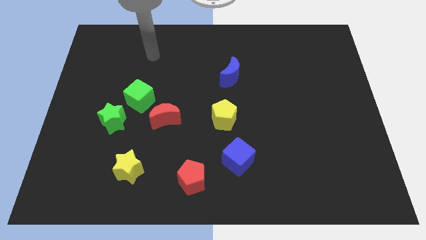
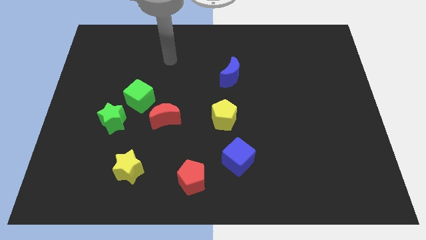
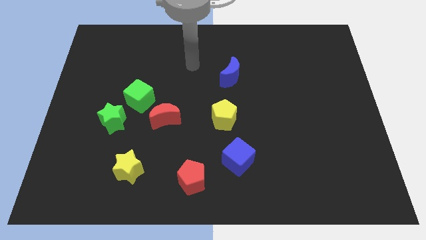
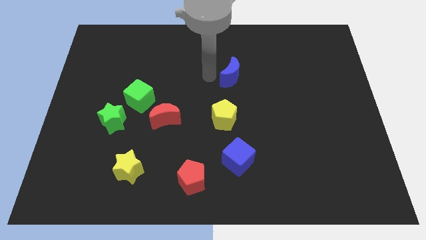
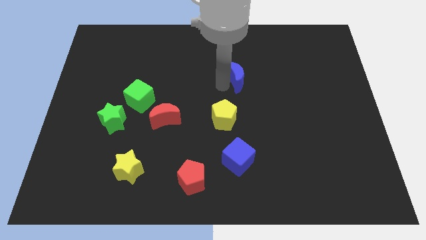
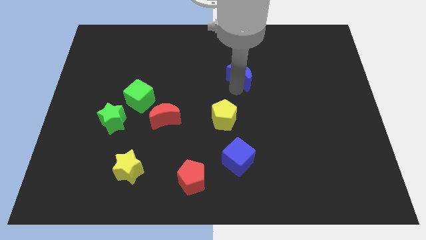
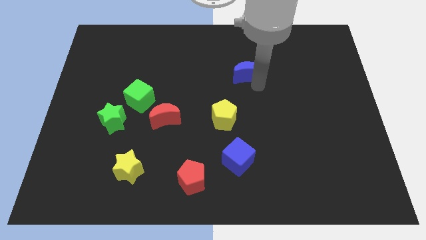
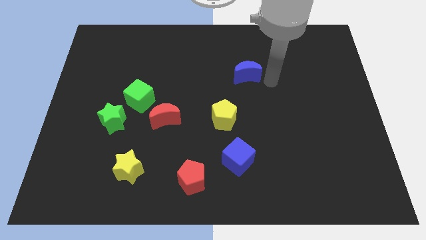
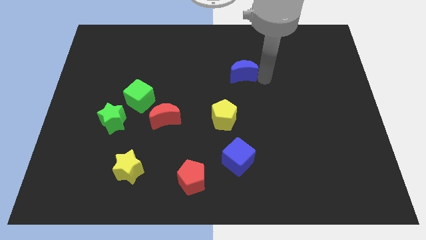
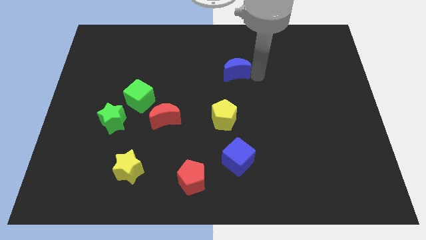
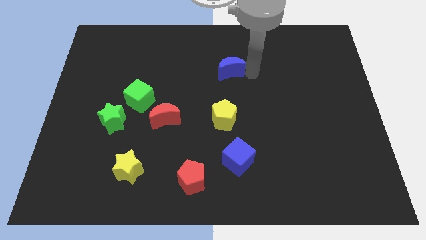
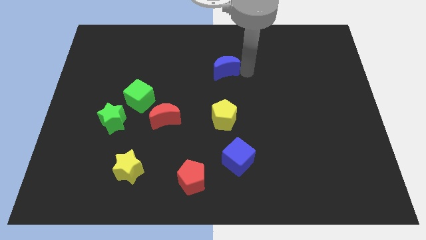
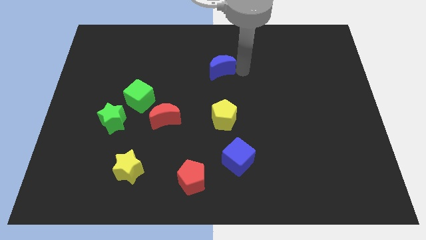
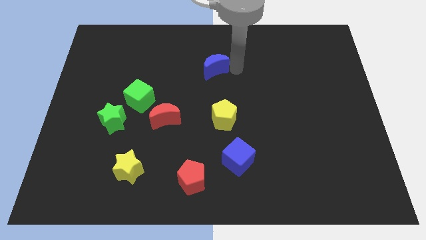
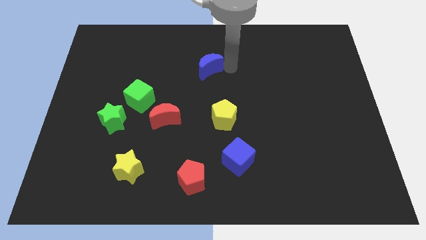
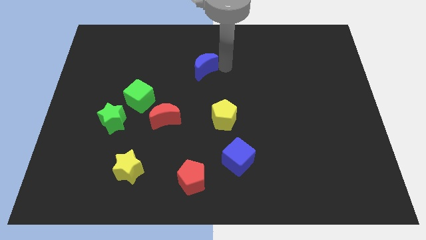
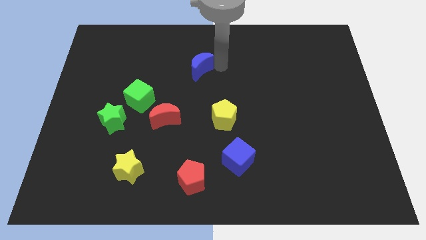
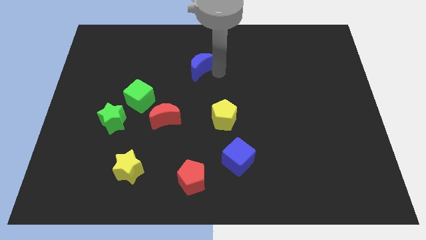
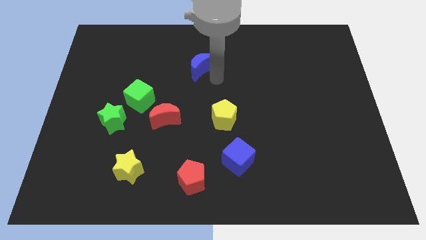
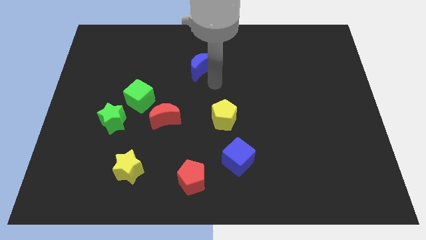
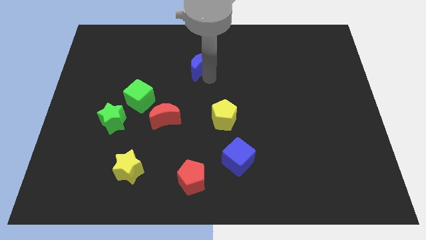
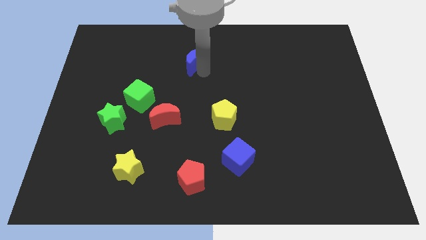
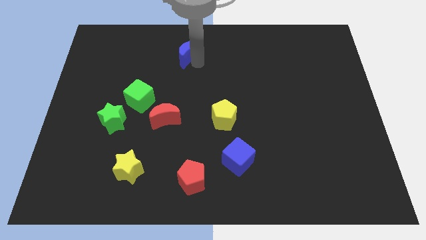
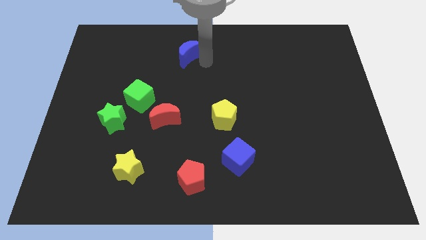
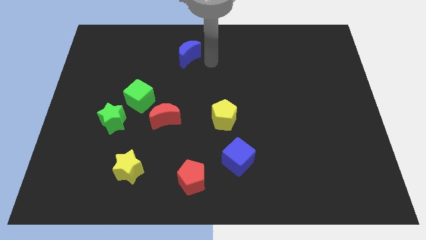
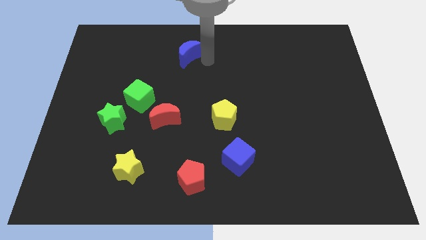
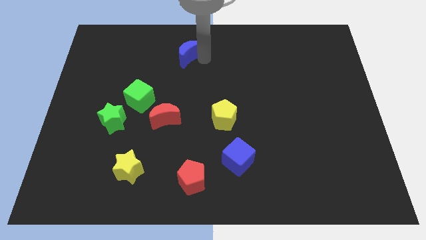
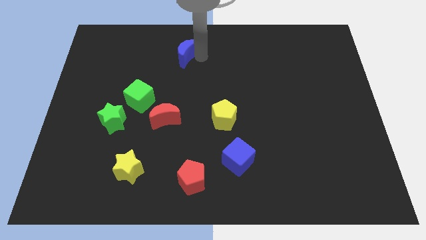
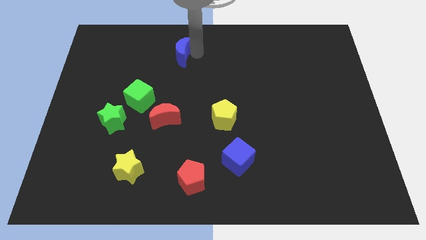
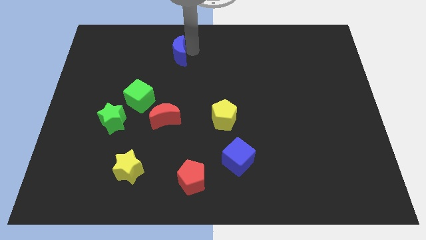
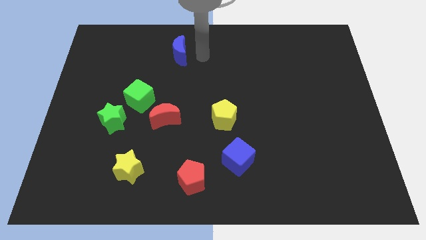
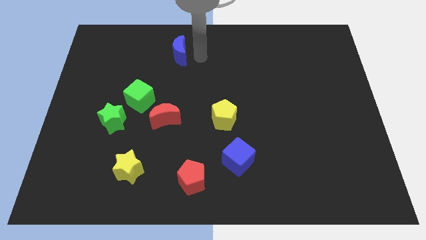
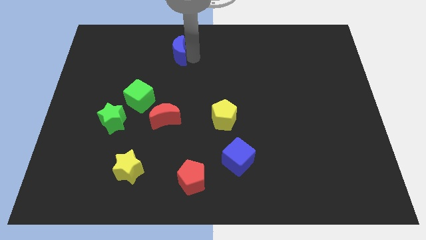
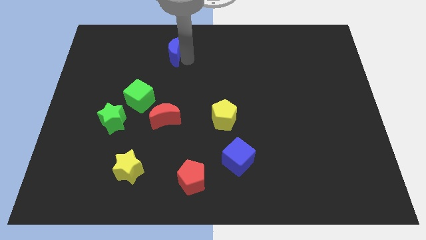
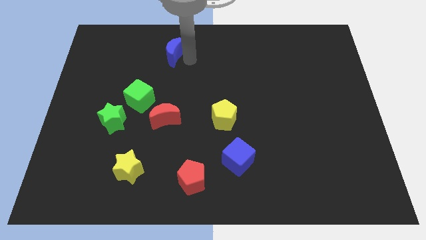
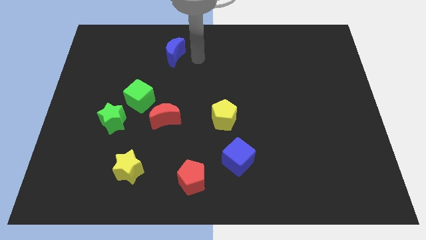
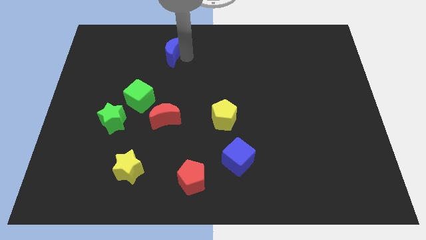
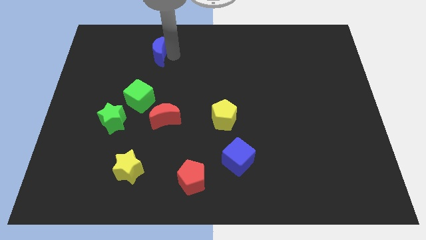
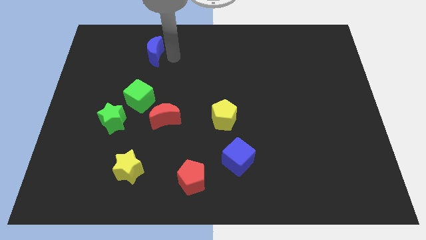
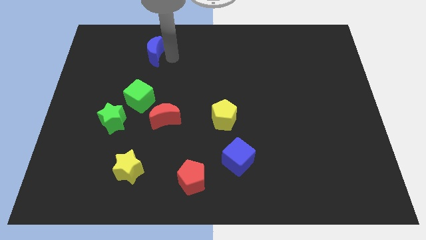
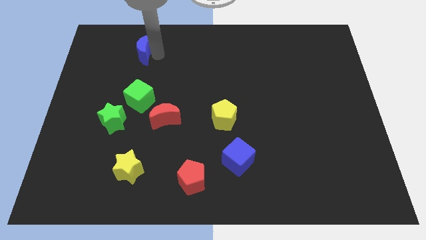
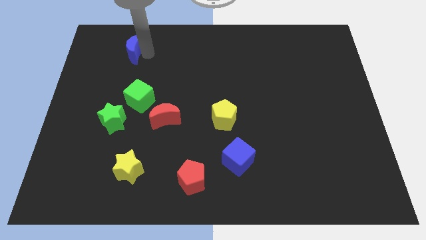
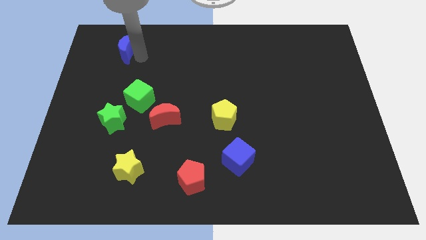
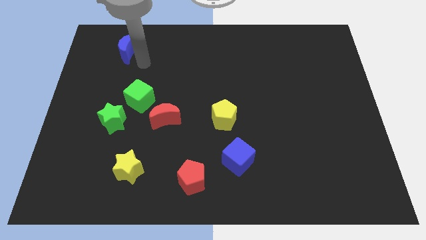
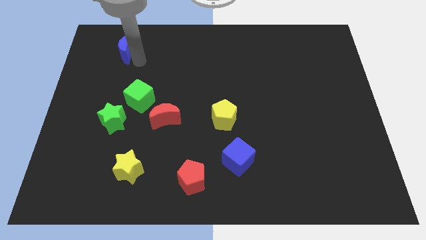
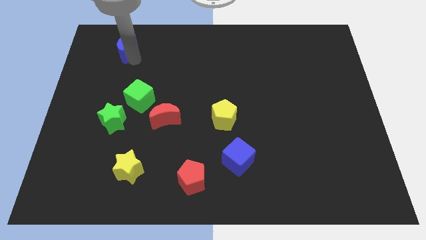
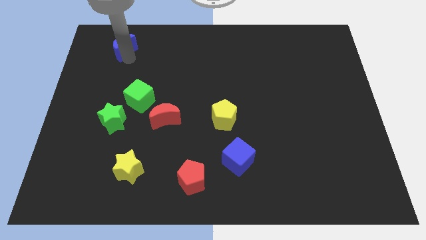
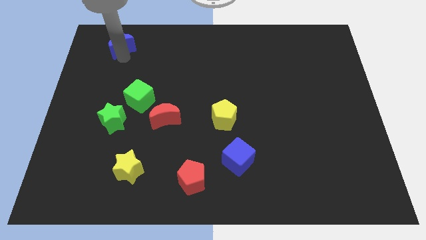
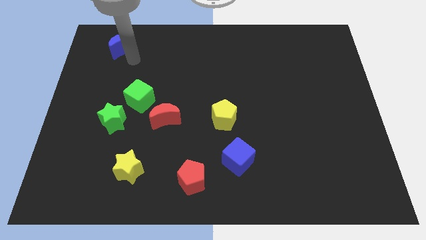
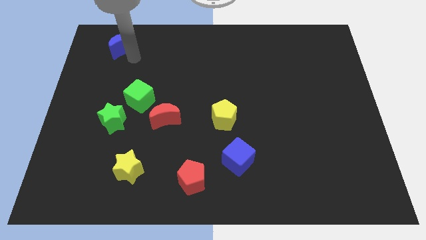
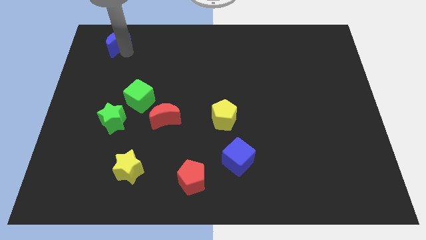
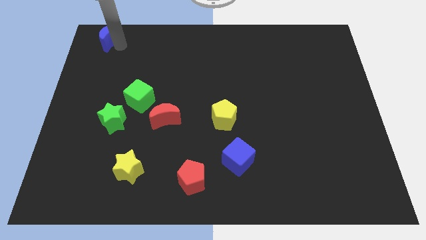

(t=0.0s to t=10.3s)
put the blue moon to the top left corner

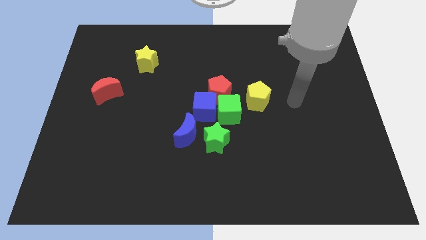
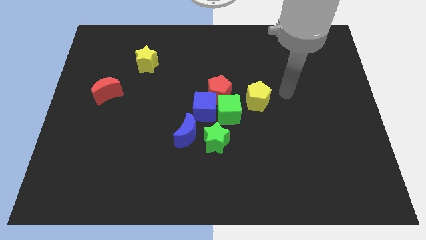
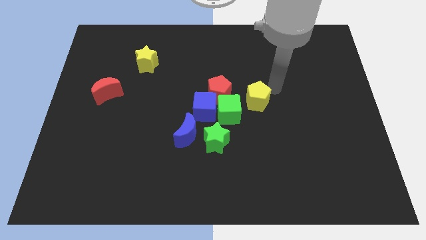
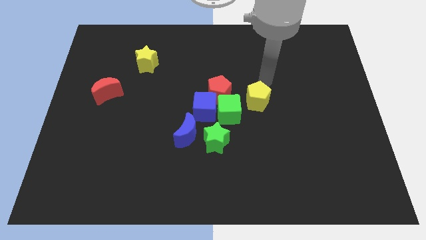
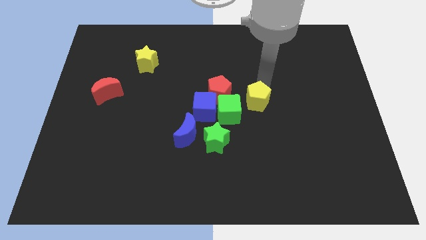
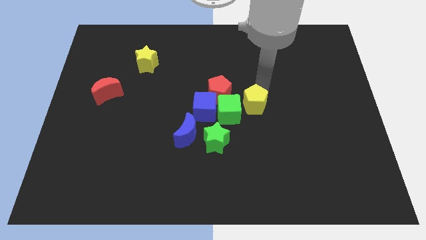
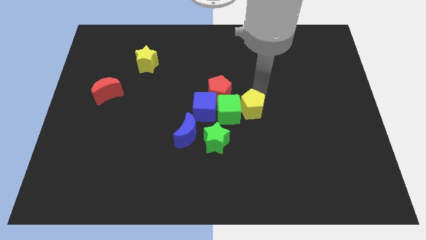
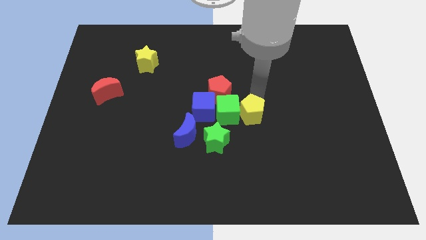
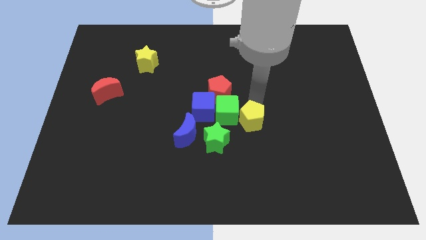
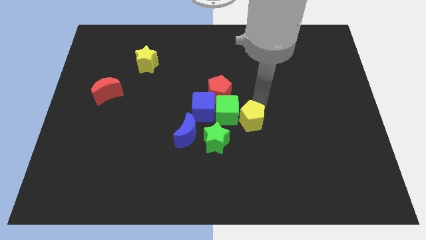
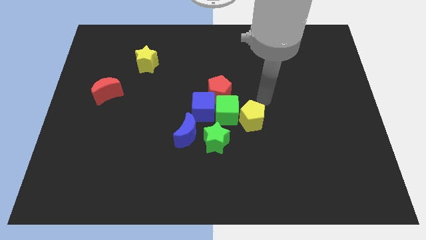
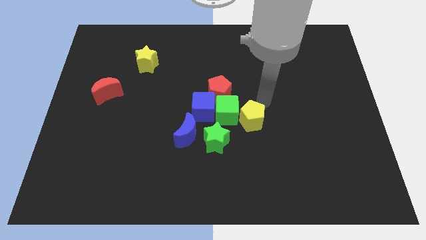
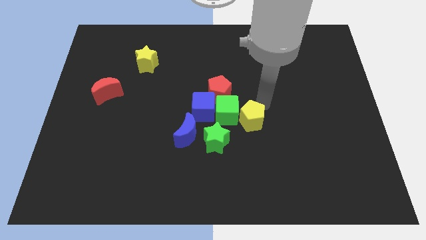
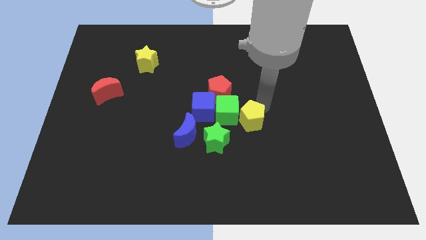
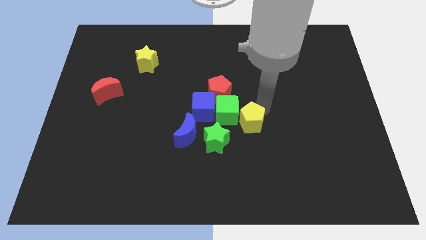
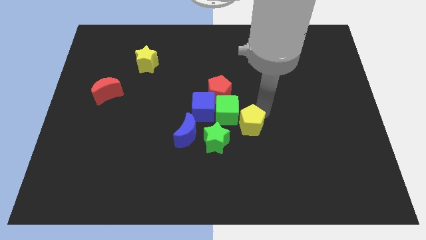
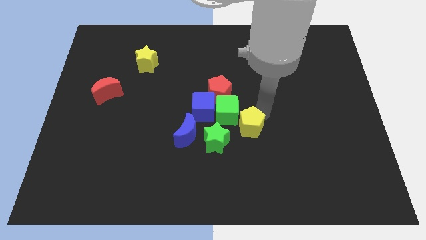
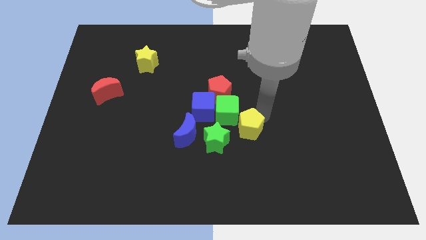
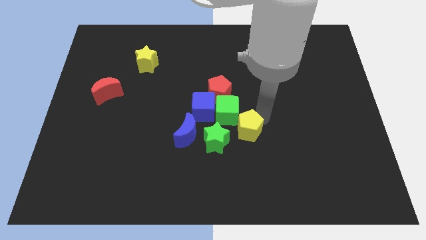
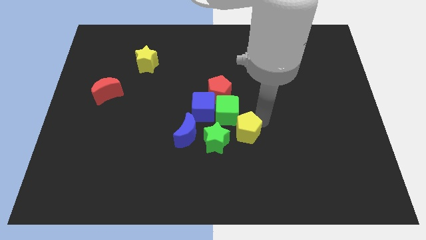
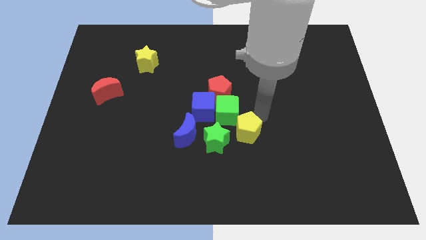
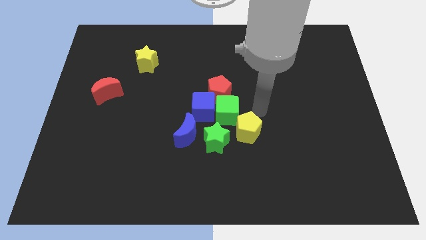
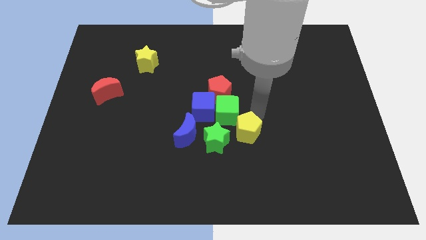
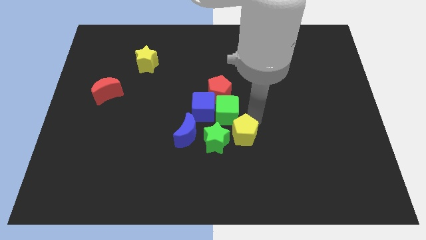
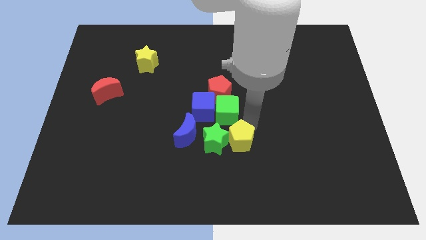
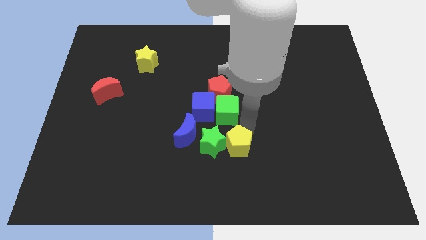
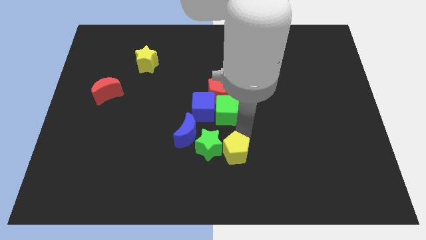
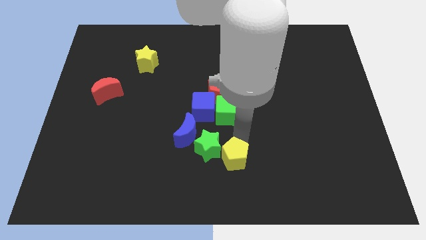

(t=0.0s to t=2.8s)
put the yellow pentagon to the bottom side
